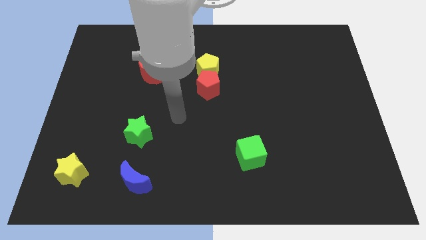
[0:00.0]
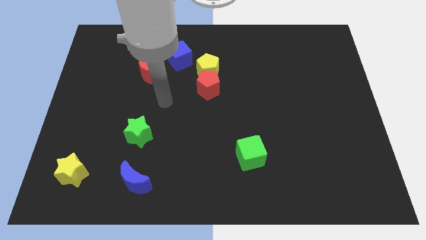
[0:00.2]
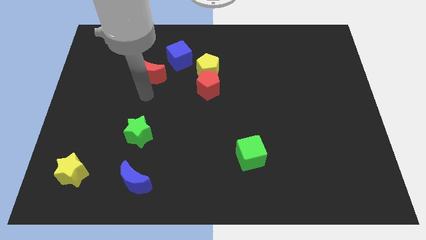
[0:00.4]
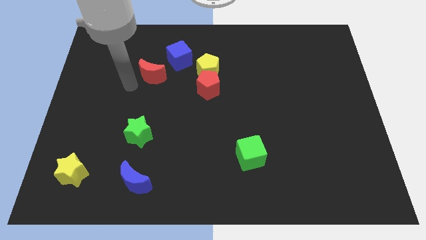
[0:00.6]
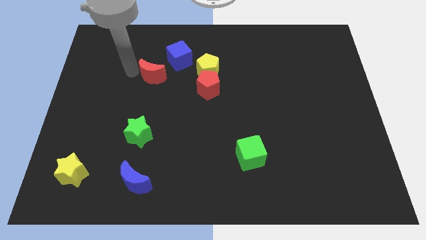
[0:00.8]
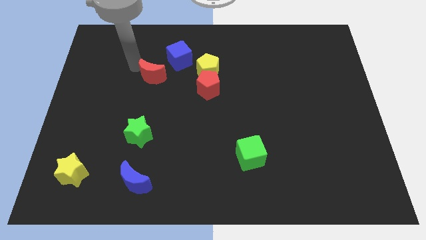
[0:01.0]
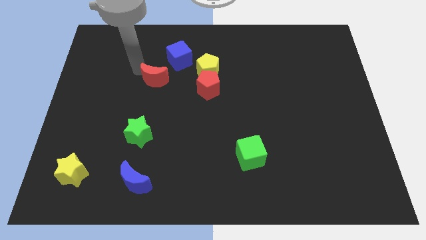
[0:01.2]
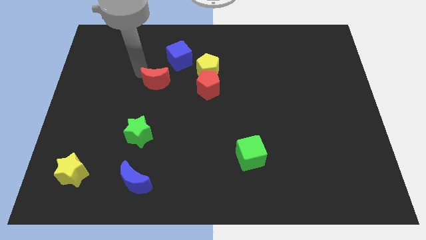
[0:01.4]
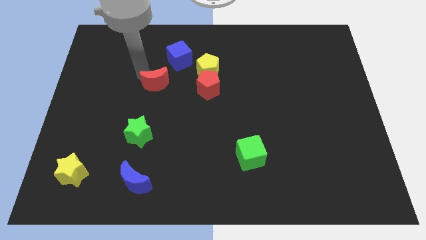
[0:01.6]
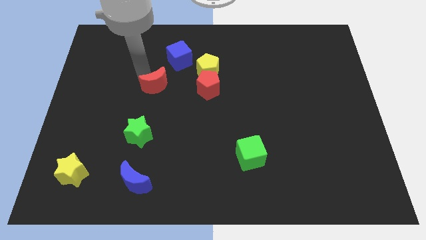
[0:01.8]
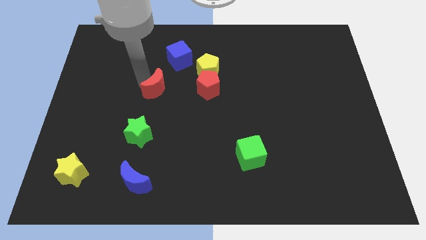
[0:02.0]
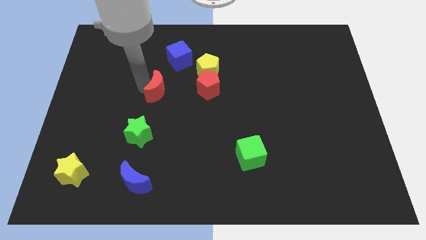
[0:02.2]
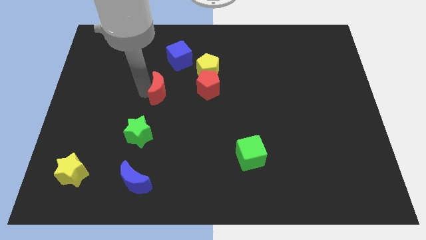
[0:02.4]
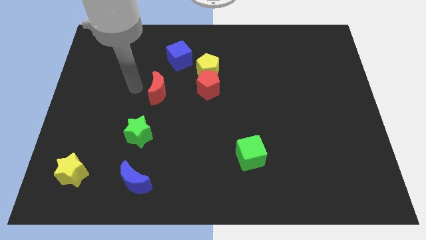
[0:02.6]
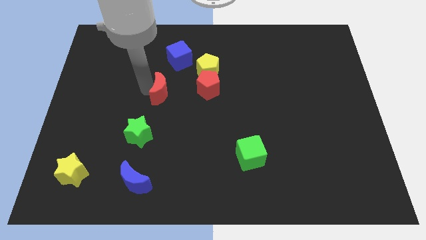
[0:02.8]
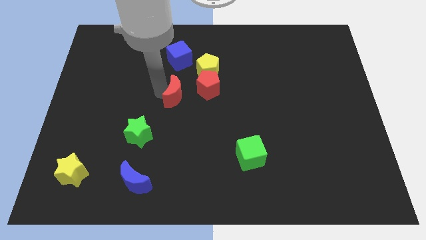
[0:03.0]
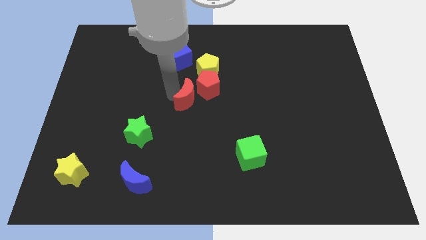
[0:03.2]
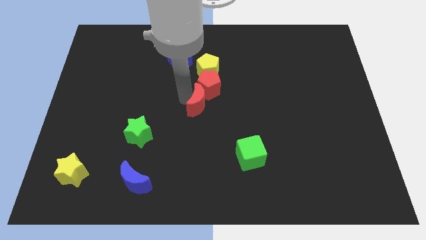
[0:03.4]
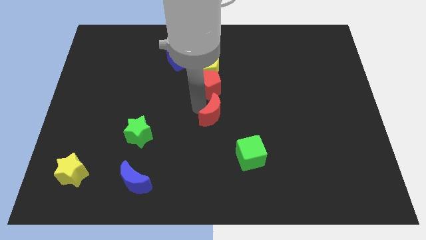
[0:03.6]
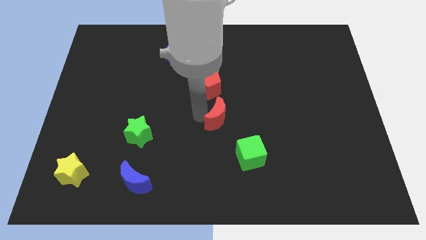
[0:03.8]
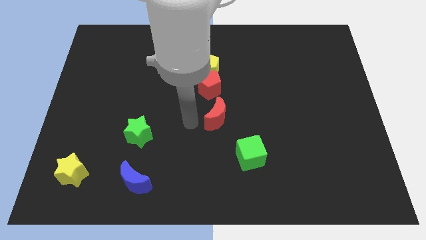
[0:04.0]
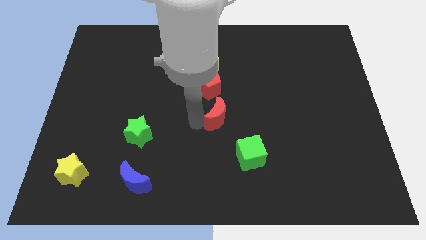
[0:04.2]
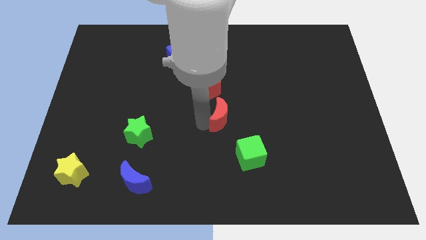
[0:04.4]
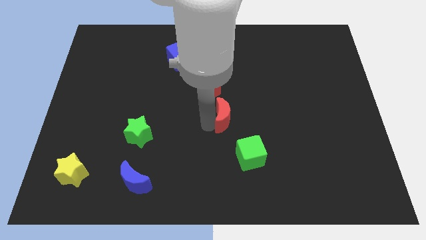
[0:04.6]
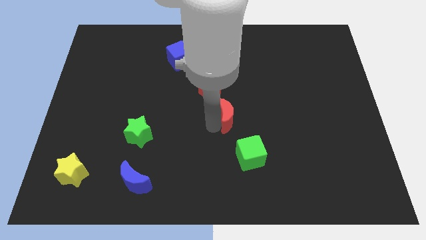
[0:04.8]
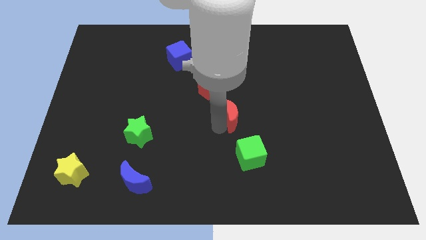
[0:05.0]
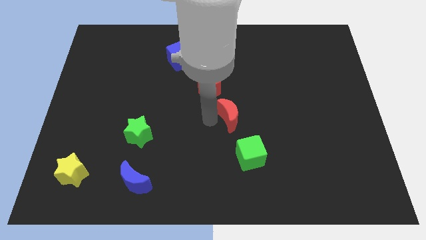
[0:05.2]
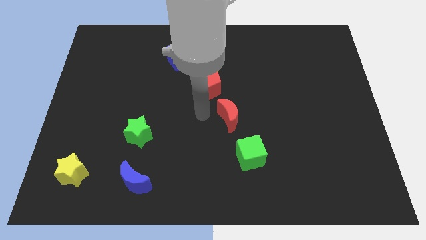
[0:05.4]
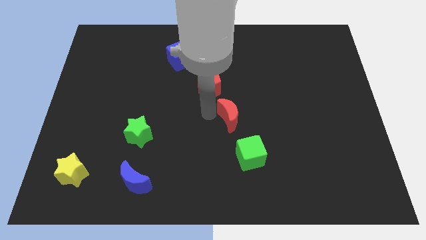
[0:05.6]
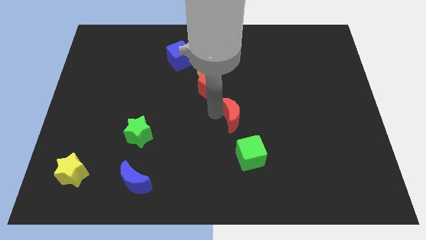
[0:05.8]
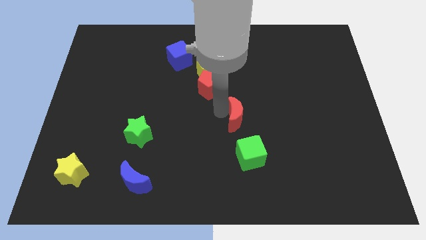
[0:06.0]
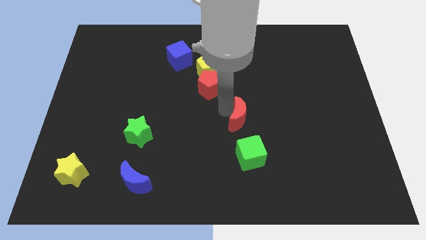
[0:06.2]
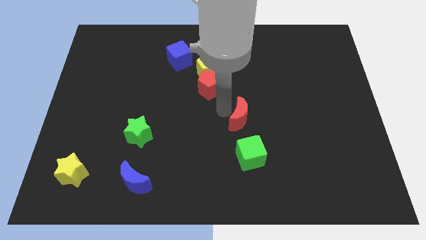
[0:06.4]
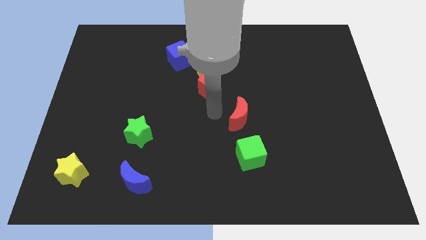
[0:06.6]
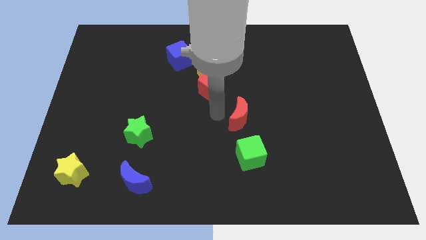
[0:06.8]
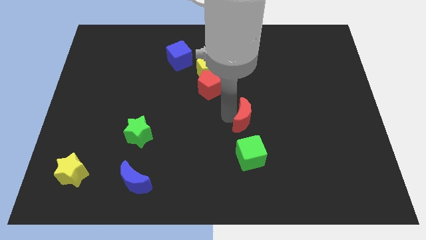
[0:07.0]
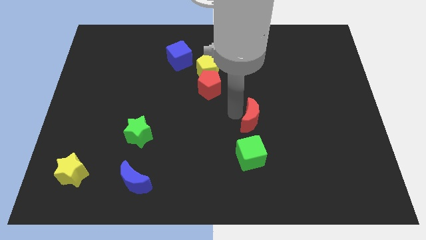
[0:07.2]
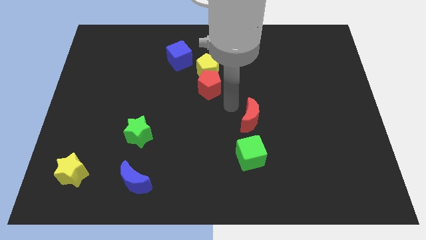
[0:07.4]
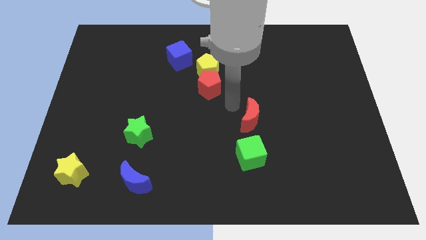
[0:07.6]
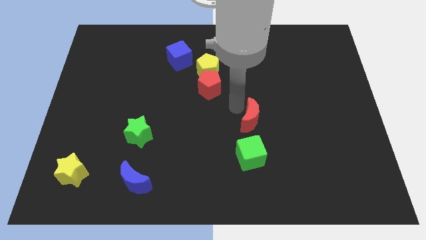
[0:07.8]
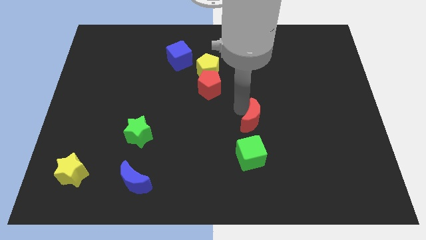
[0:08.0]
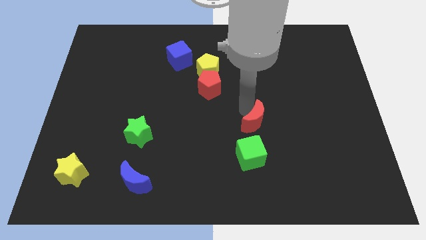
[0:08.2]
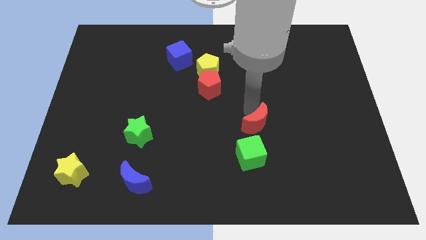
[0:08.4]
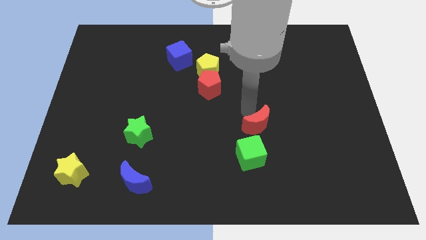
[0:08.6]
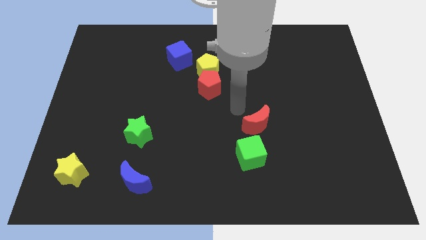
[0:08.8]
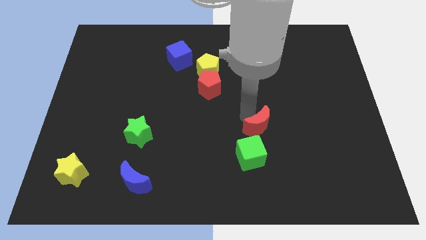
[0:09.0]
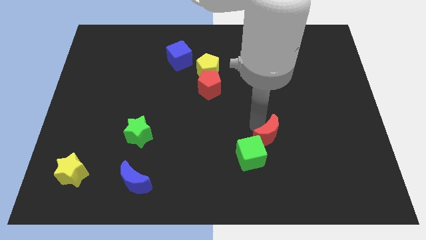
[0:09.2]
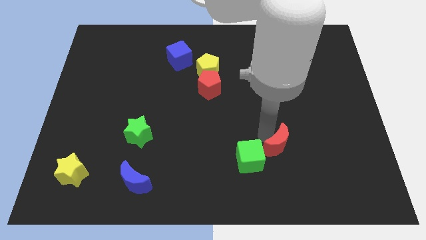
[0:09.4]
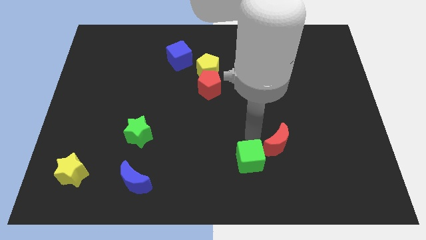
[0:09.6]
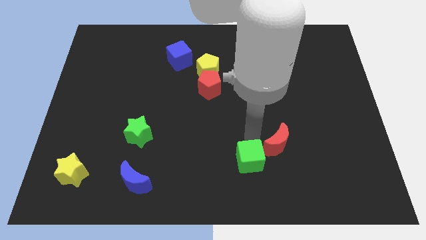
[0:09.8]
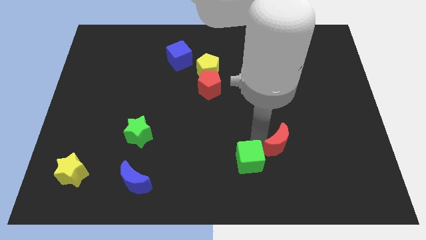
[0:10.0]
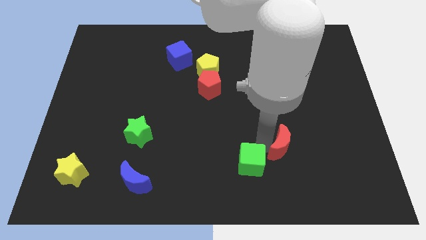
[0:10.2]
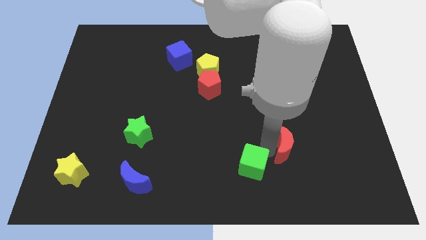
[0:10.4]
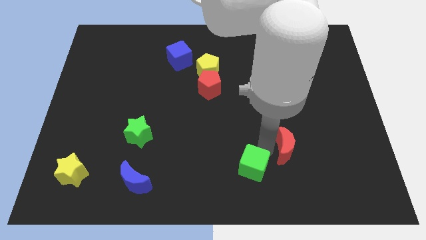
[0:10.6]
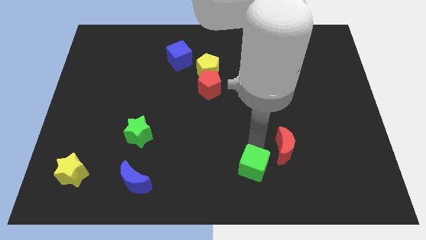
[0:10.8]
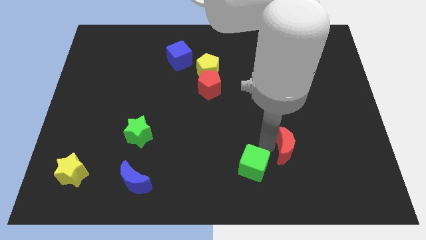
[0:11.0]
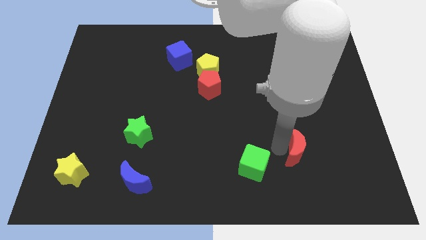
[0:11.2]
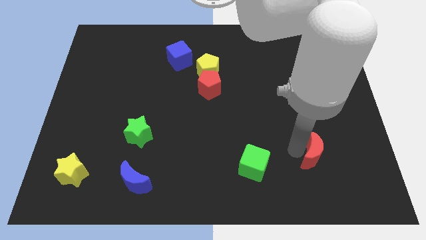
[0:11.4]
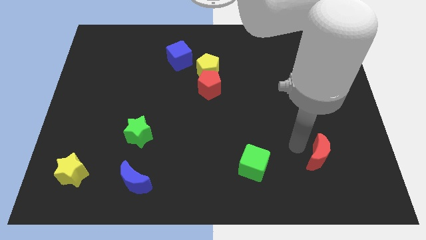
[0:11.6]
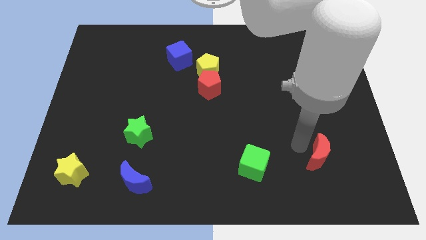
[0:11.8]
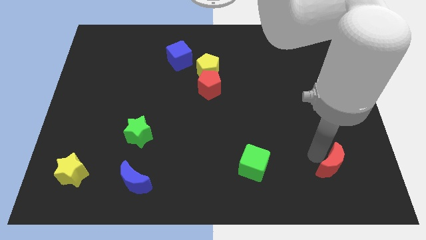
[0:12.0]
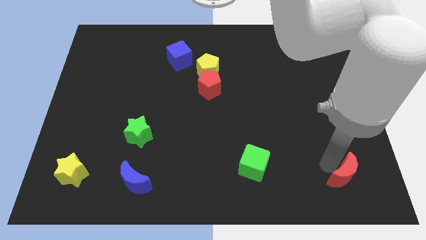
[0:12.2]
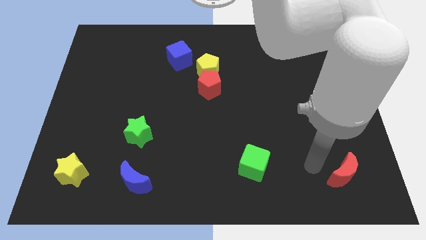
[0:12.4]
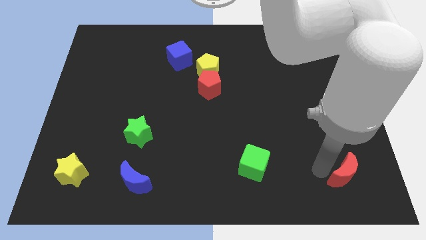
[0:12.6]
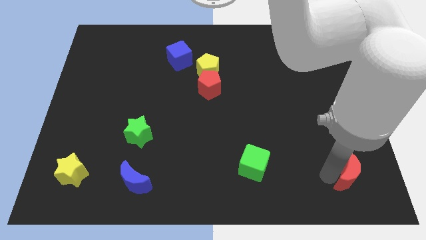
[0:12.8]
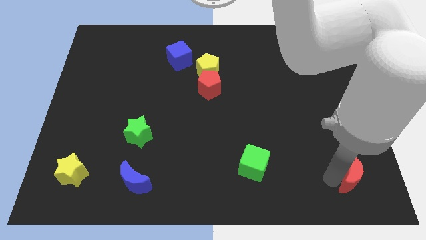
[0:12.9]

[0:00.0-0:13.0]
push the red moon to the bottom right of the board
